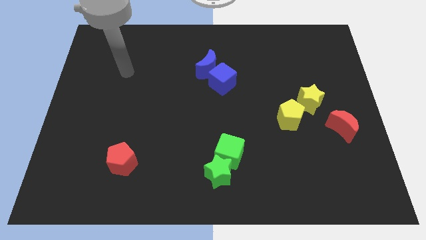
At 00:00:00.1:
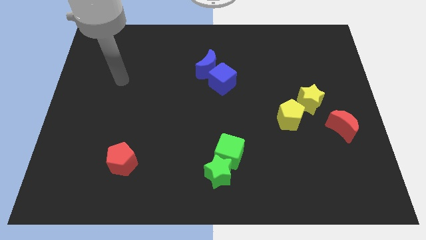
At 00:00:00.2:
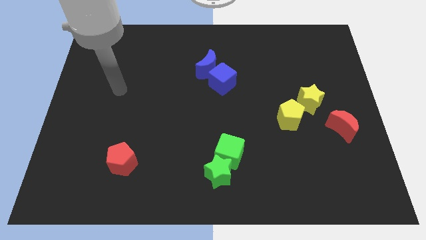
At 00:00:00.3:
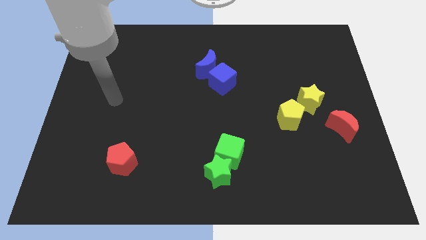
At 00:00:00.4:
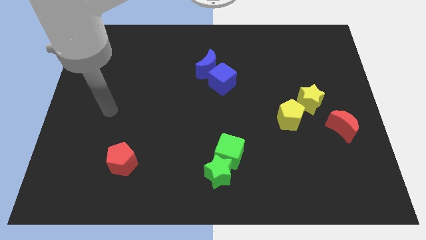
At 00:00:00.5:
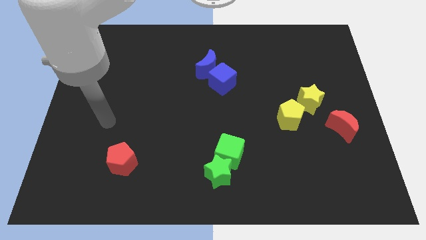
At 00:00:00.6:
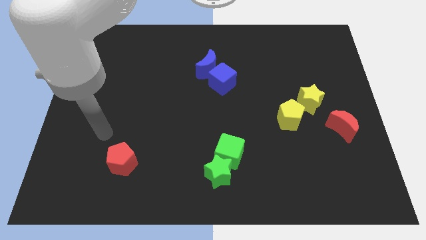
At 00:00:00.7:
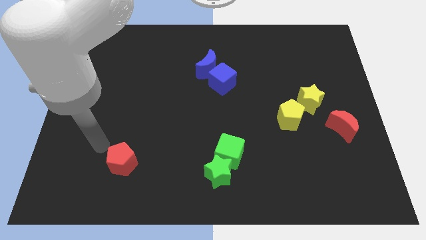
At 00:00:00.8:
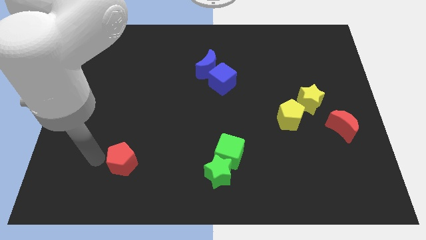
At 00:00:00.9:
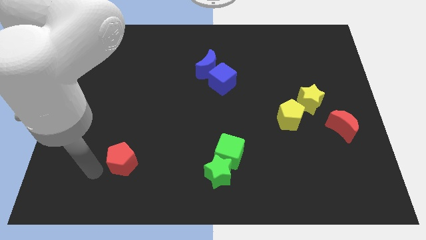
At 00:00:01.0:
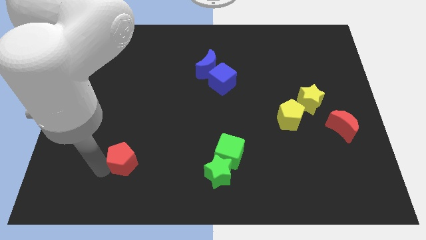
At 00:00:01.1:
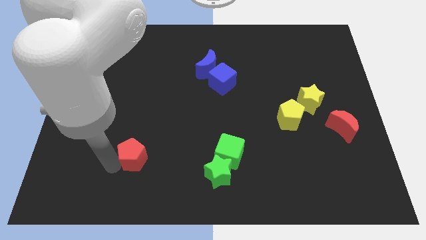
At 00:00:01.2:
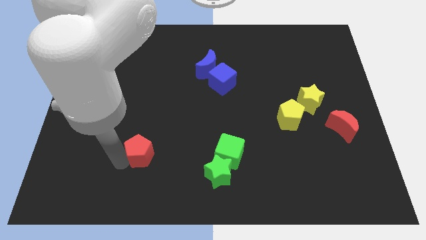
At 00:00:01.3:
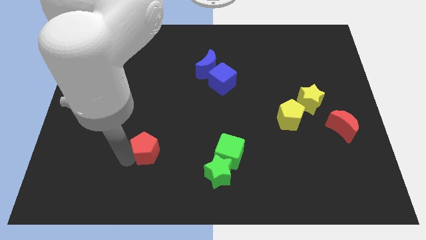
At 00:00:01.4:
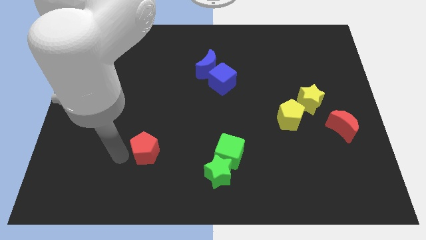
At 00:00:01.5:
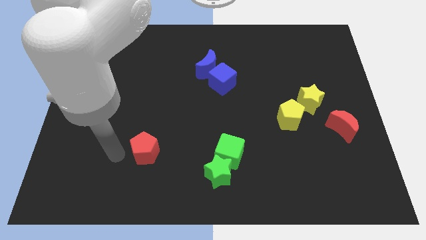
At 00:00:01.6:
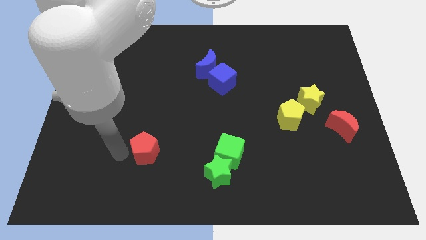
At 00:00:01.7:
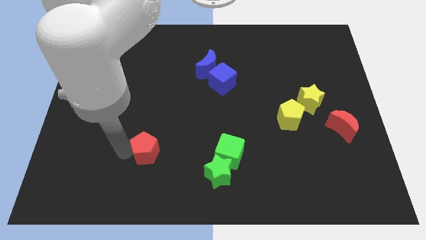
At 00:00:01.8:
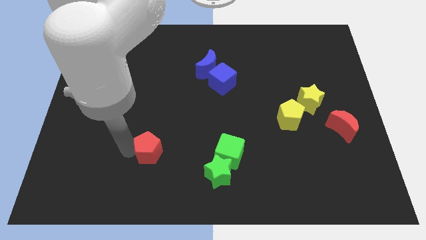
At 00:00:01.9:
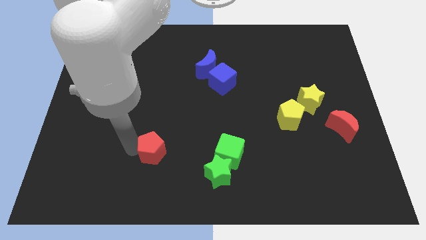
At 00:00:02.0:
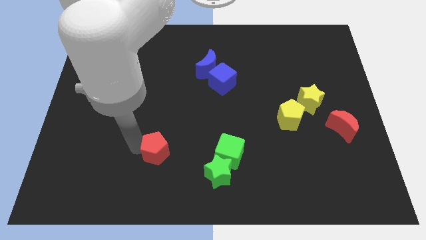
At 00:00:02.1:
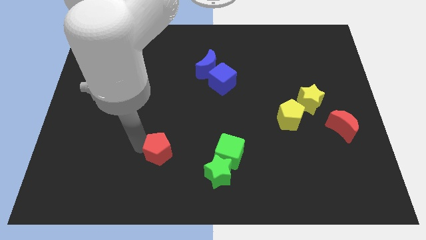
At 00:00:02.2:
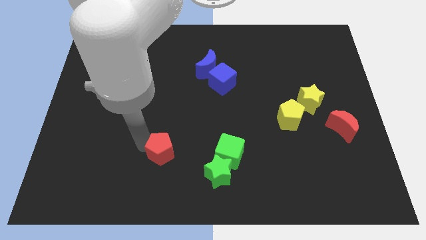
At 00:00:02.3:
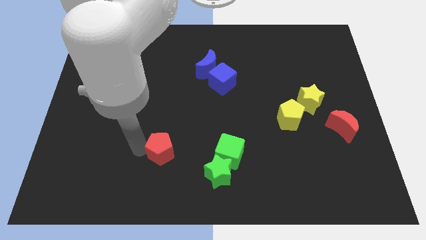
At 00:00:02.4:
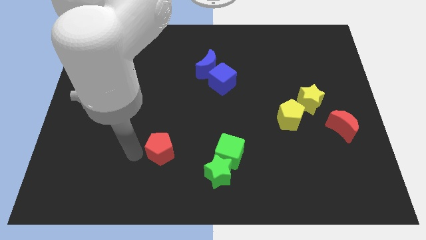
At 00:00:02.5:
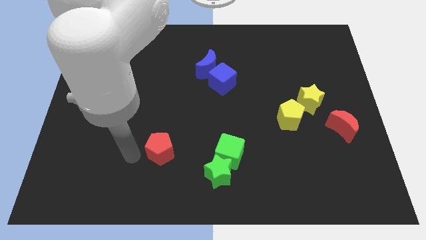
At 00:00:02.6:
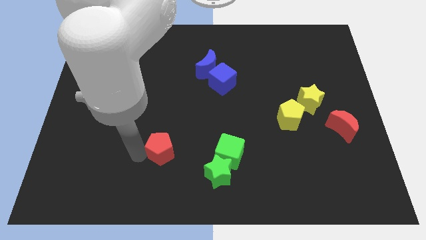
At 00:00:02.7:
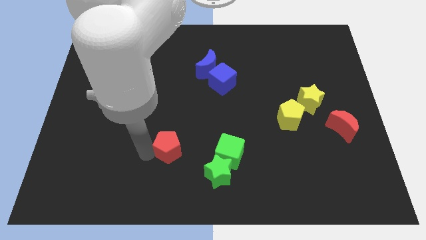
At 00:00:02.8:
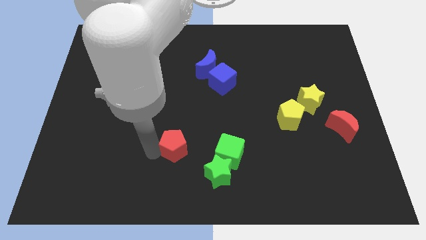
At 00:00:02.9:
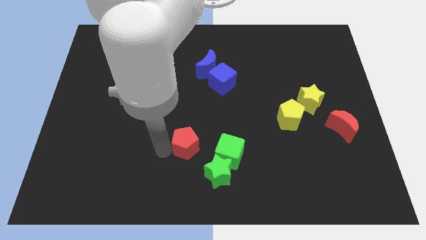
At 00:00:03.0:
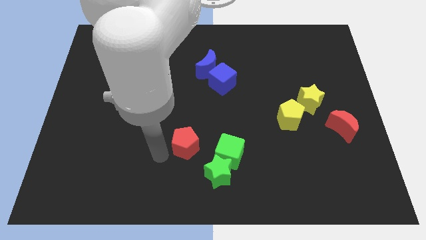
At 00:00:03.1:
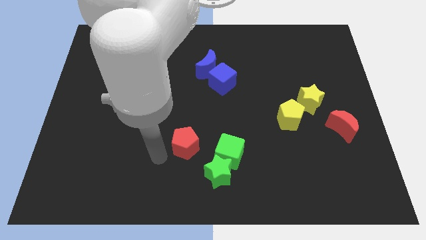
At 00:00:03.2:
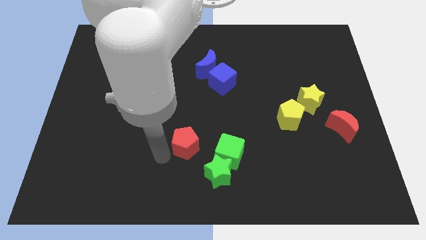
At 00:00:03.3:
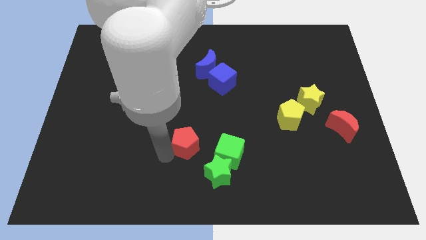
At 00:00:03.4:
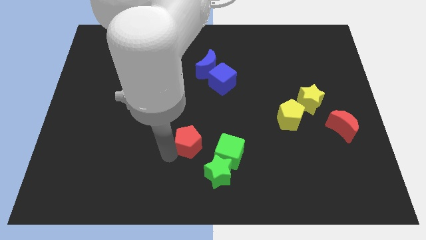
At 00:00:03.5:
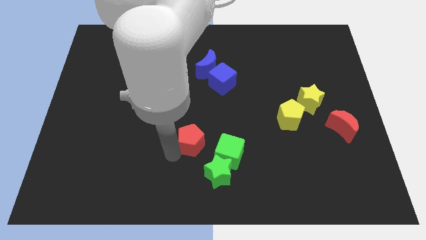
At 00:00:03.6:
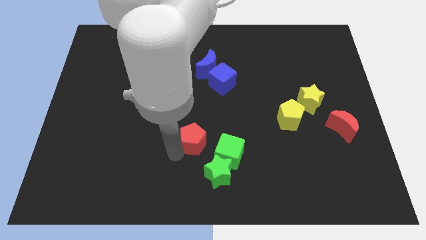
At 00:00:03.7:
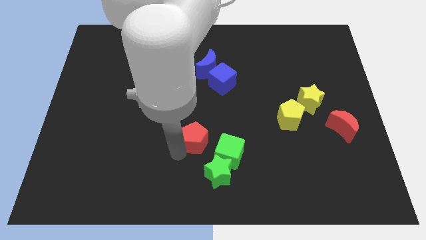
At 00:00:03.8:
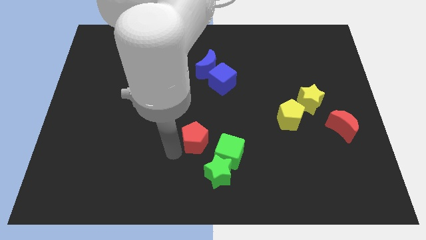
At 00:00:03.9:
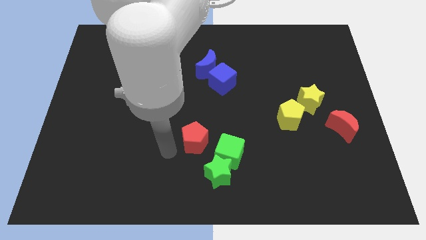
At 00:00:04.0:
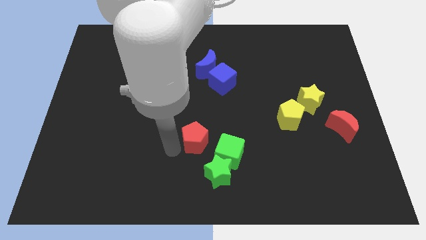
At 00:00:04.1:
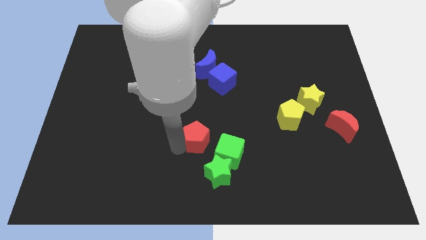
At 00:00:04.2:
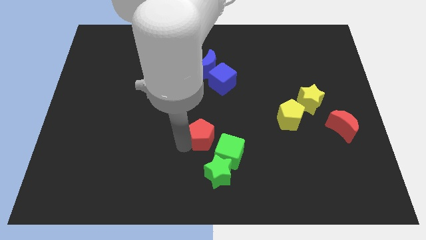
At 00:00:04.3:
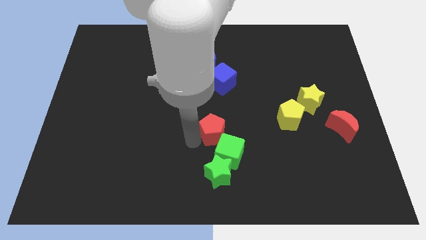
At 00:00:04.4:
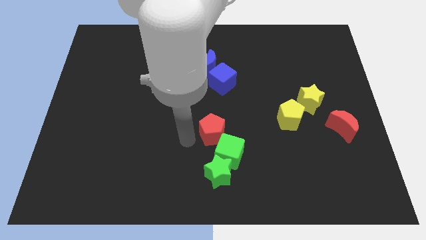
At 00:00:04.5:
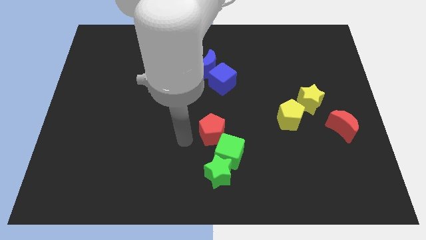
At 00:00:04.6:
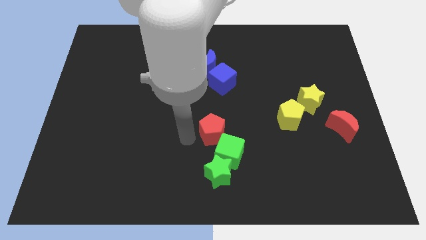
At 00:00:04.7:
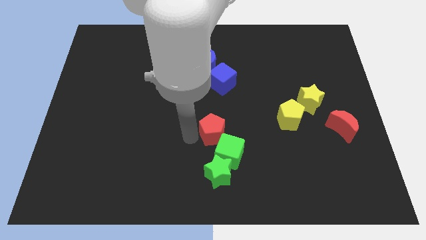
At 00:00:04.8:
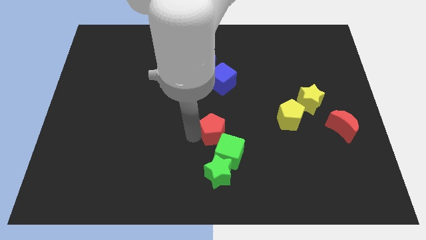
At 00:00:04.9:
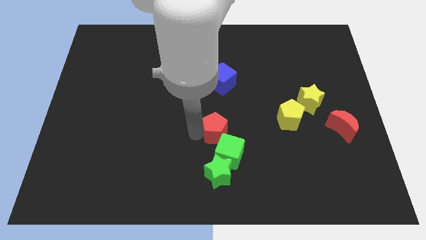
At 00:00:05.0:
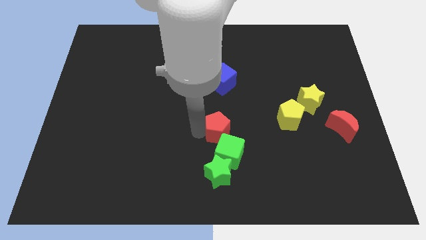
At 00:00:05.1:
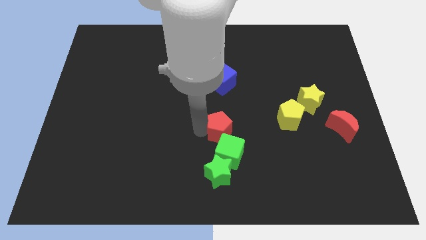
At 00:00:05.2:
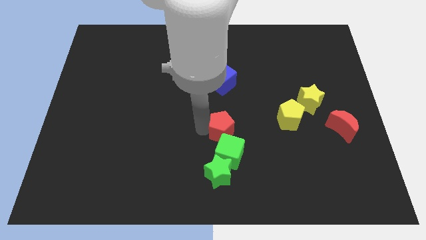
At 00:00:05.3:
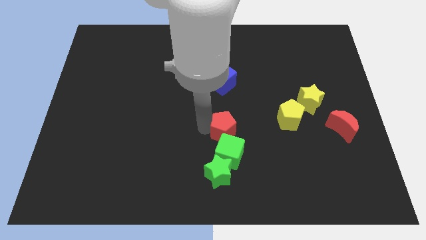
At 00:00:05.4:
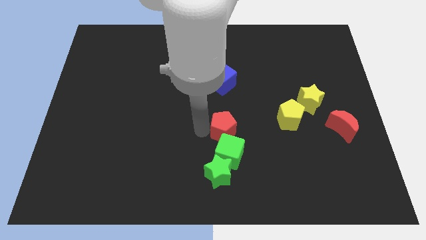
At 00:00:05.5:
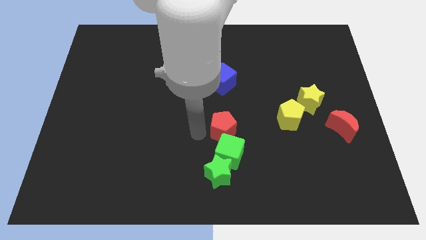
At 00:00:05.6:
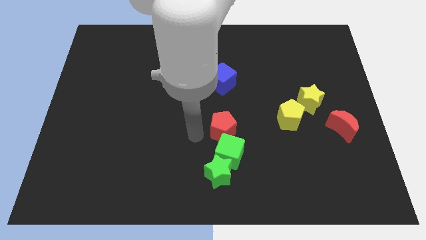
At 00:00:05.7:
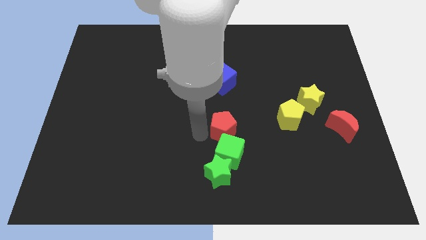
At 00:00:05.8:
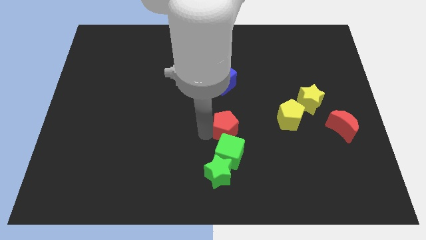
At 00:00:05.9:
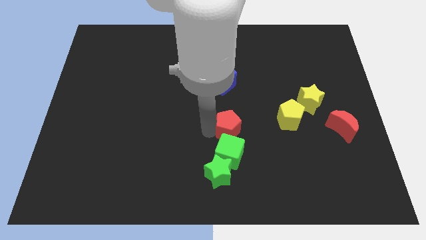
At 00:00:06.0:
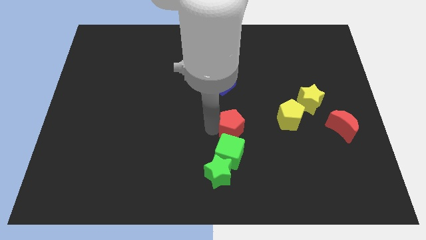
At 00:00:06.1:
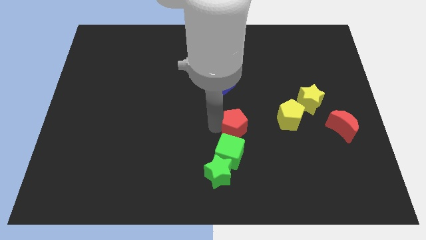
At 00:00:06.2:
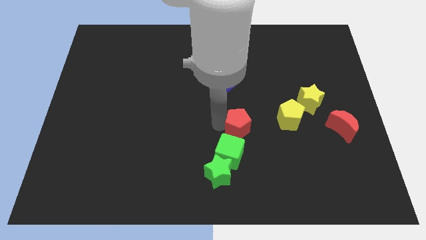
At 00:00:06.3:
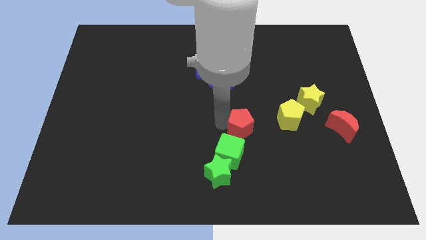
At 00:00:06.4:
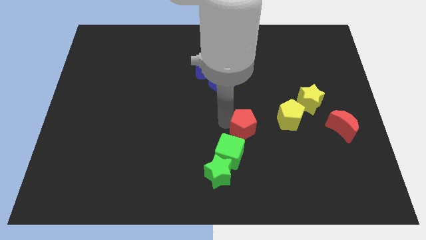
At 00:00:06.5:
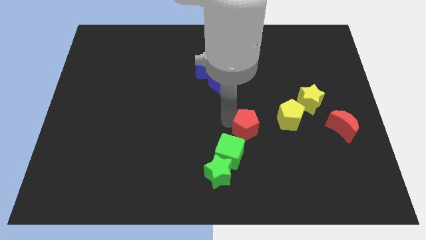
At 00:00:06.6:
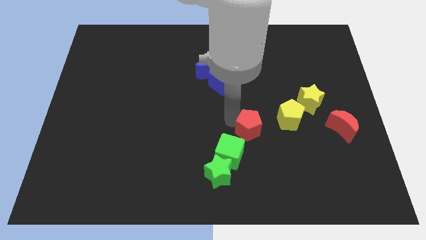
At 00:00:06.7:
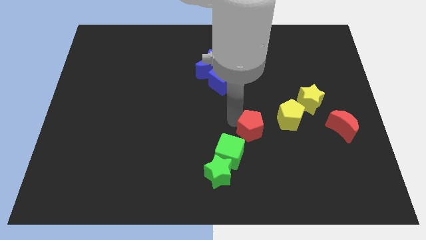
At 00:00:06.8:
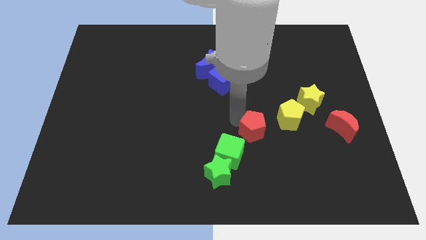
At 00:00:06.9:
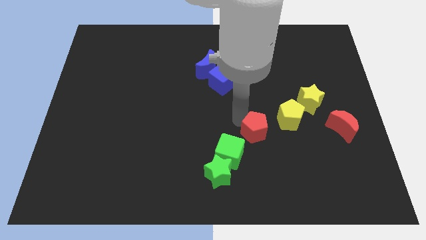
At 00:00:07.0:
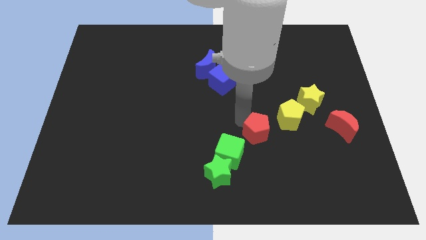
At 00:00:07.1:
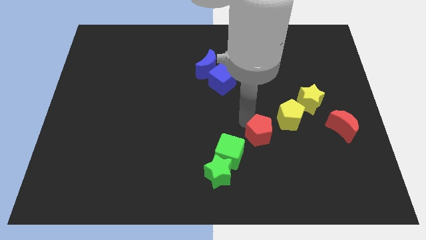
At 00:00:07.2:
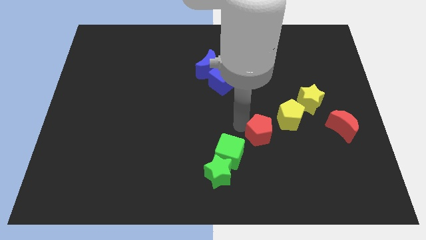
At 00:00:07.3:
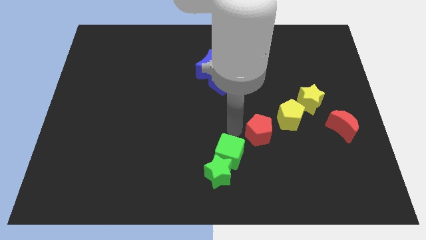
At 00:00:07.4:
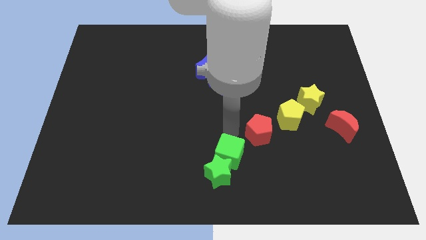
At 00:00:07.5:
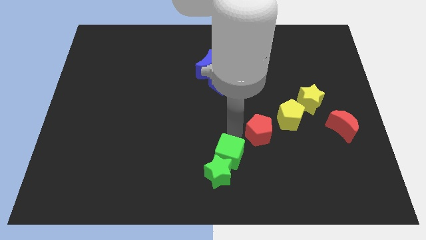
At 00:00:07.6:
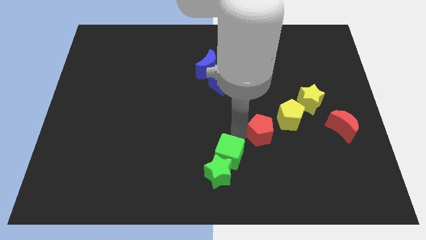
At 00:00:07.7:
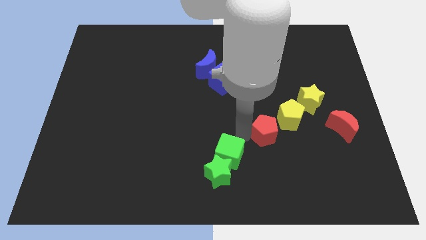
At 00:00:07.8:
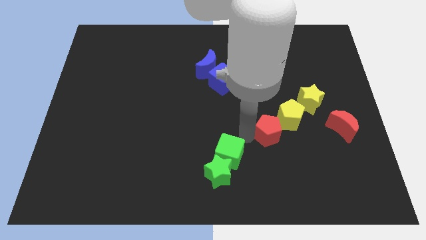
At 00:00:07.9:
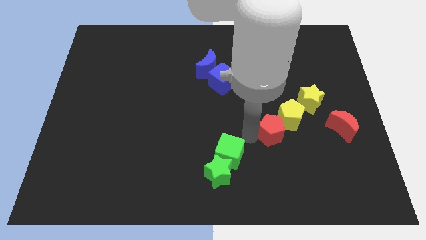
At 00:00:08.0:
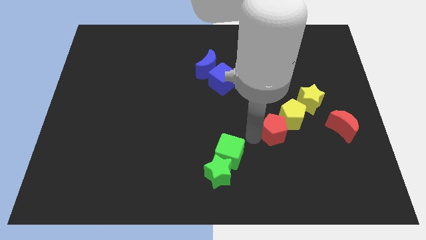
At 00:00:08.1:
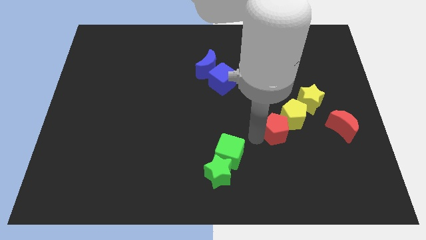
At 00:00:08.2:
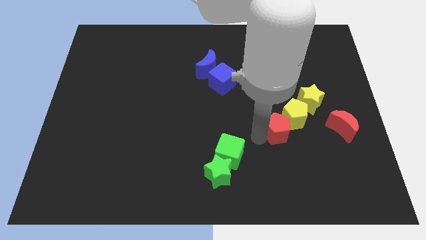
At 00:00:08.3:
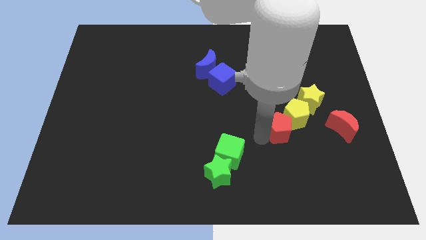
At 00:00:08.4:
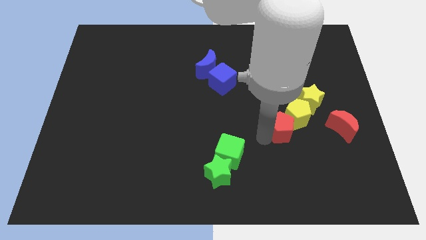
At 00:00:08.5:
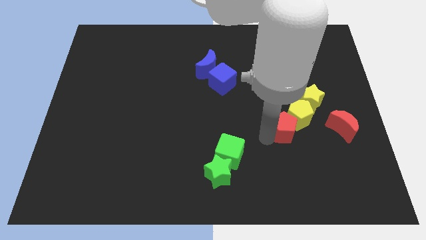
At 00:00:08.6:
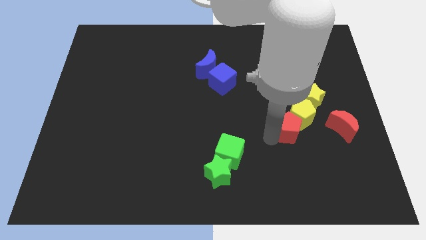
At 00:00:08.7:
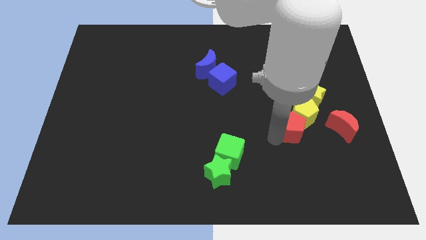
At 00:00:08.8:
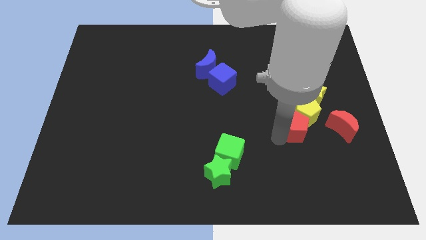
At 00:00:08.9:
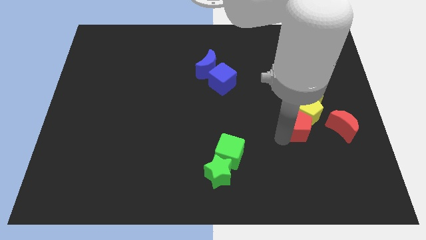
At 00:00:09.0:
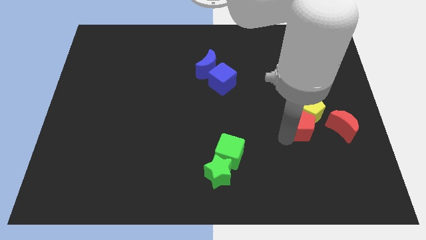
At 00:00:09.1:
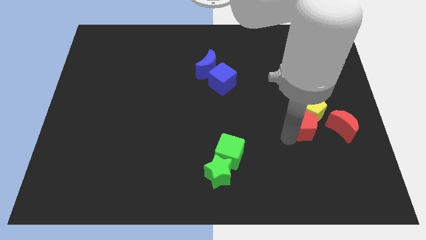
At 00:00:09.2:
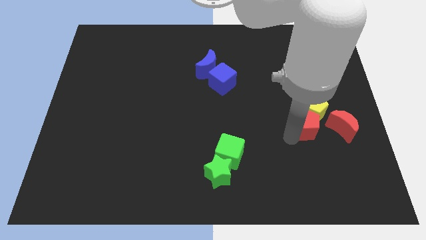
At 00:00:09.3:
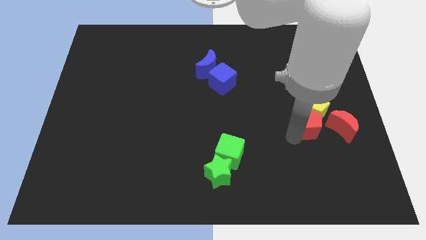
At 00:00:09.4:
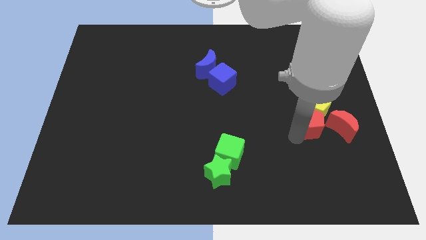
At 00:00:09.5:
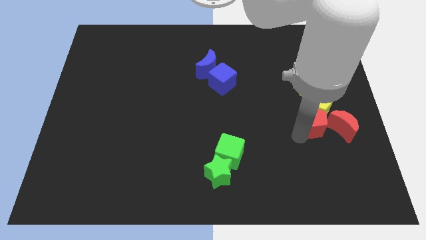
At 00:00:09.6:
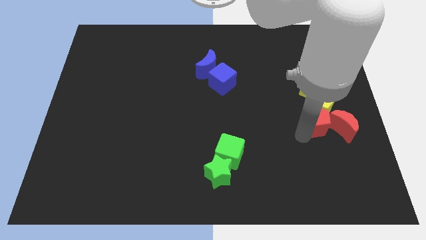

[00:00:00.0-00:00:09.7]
put the red pentagon to the red moon
